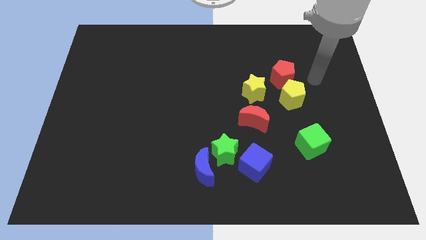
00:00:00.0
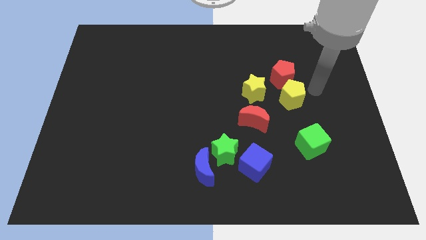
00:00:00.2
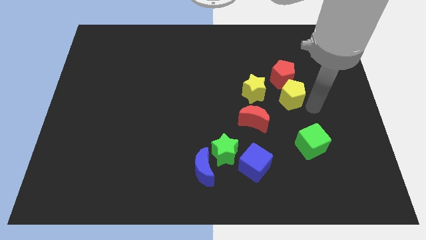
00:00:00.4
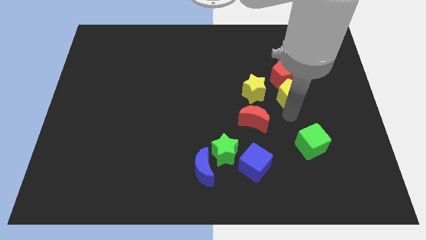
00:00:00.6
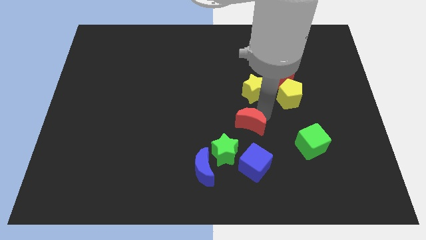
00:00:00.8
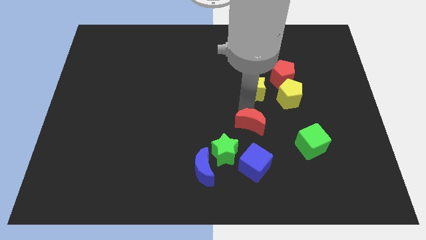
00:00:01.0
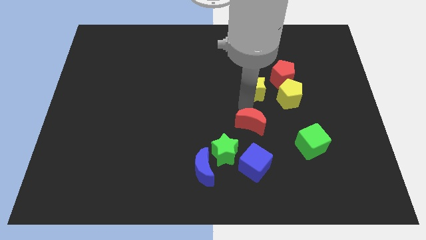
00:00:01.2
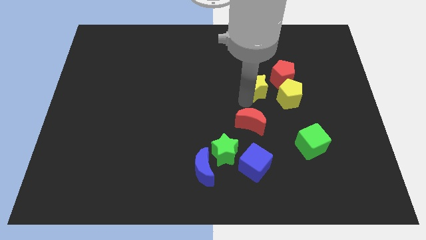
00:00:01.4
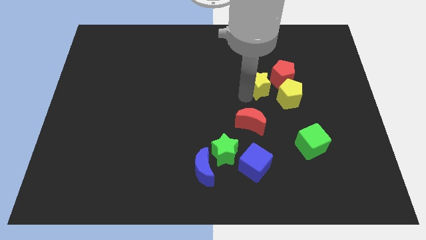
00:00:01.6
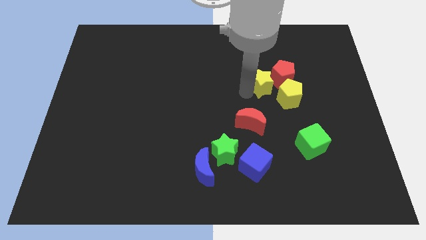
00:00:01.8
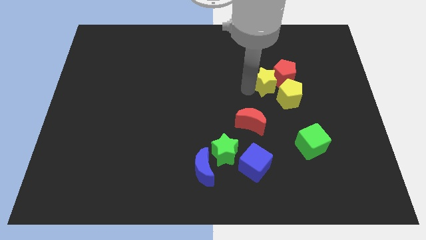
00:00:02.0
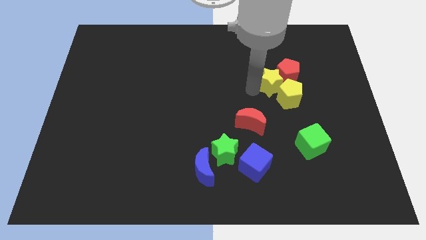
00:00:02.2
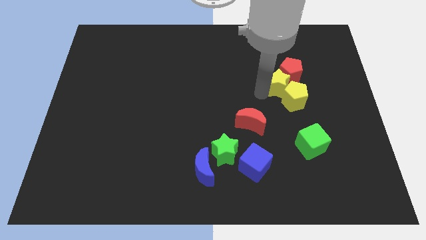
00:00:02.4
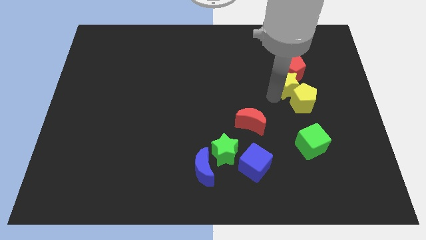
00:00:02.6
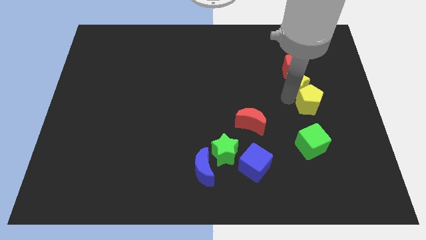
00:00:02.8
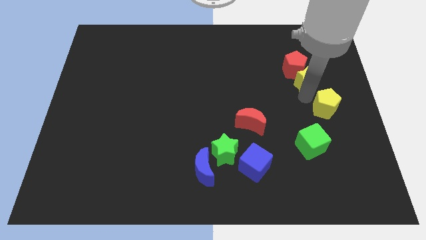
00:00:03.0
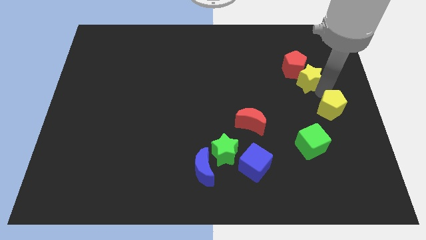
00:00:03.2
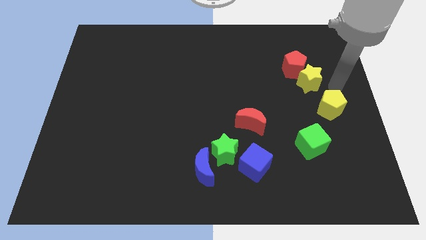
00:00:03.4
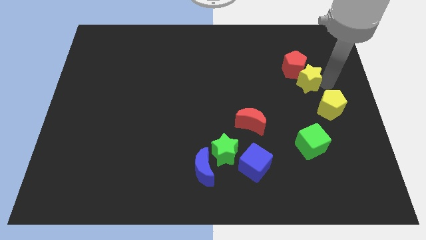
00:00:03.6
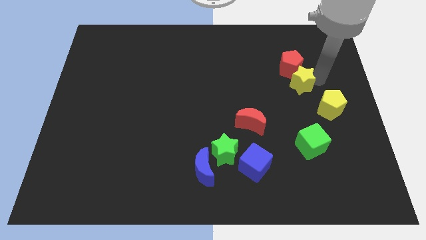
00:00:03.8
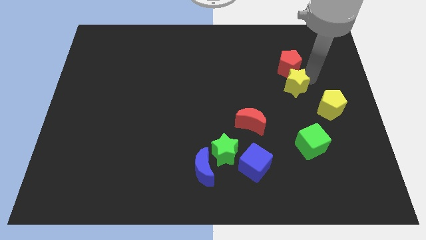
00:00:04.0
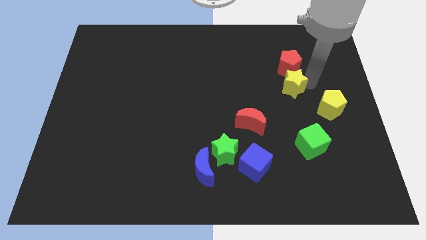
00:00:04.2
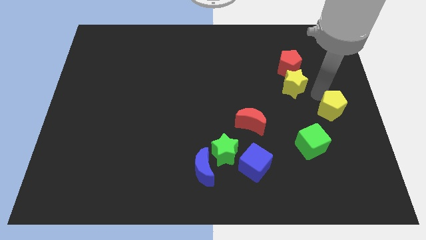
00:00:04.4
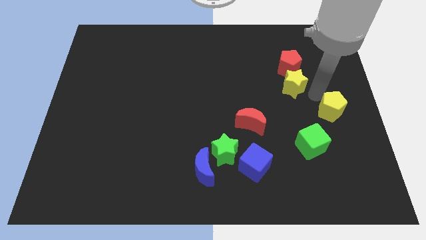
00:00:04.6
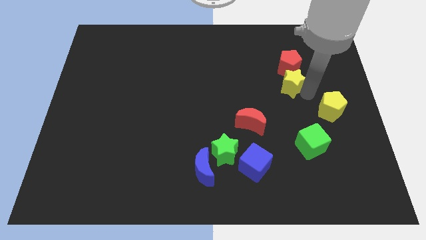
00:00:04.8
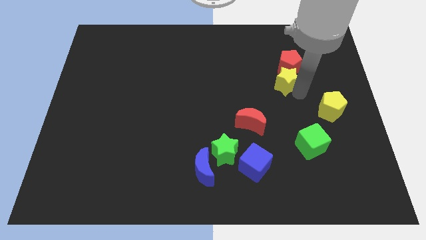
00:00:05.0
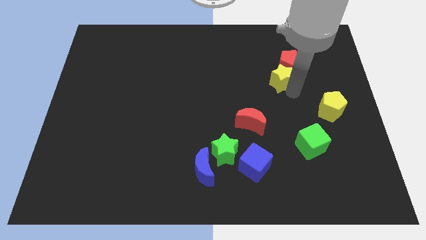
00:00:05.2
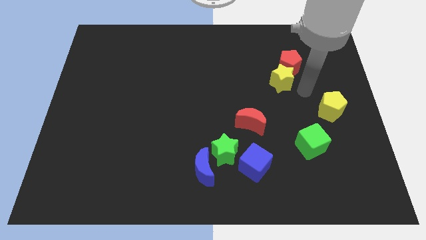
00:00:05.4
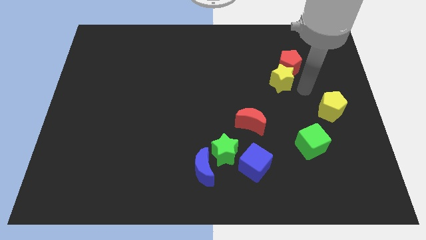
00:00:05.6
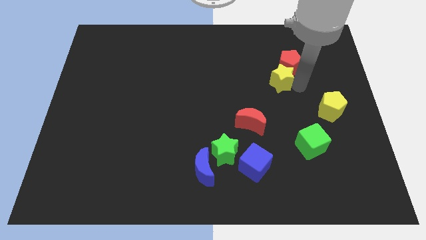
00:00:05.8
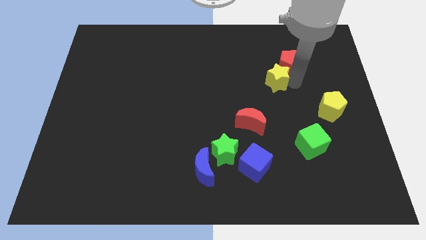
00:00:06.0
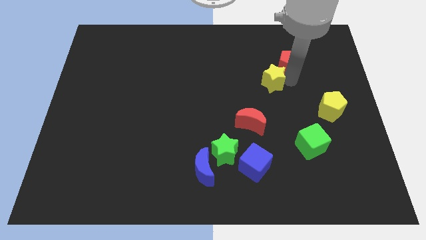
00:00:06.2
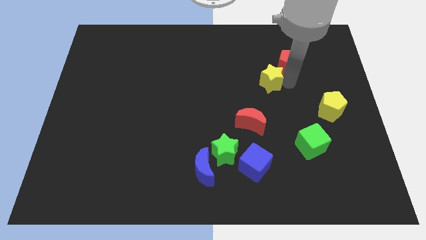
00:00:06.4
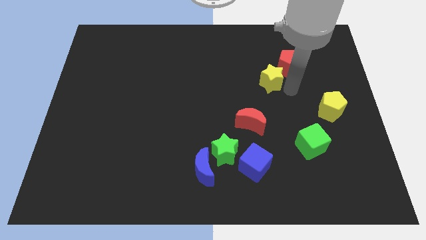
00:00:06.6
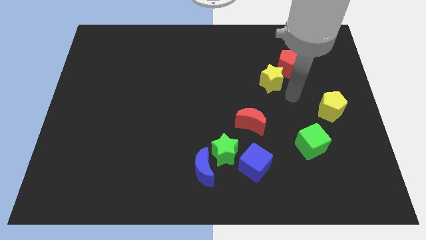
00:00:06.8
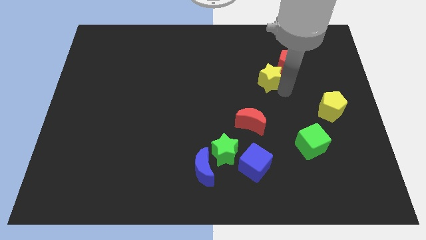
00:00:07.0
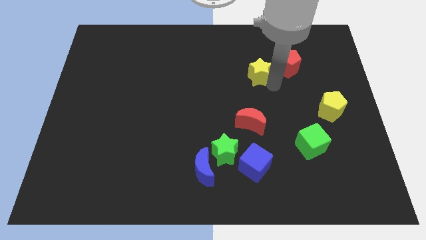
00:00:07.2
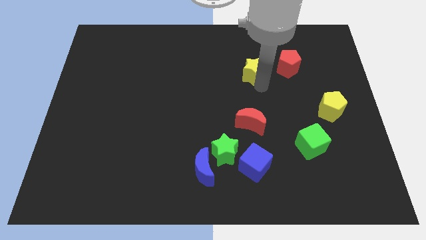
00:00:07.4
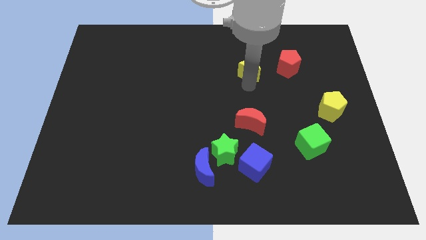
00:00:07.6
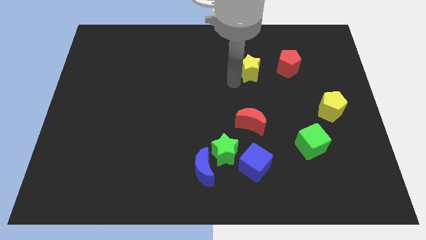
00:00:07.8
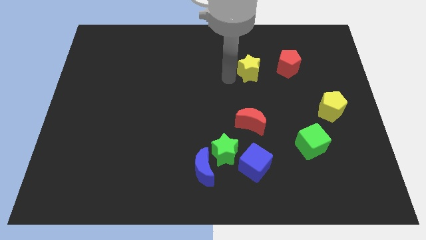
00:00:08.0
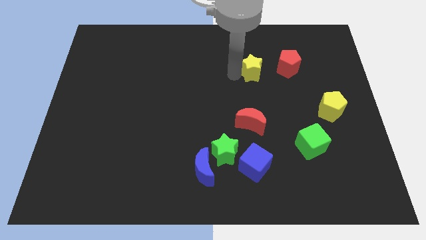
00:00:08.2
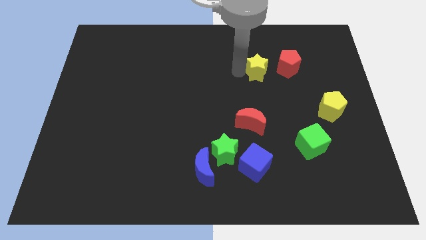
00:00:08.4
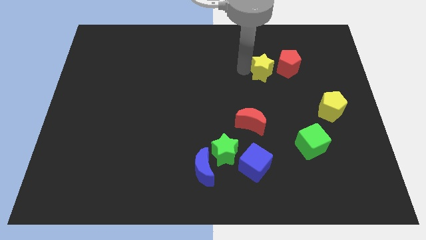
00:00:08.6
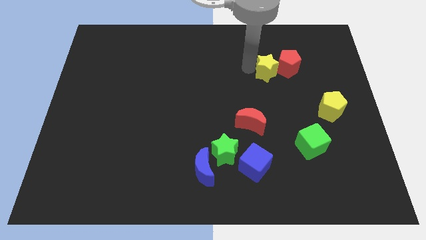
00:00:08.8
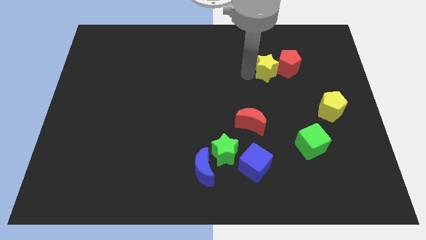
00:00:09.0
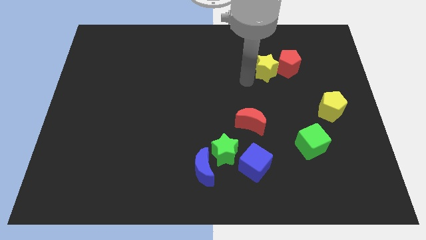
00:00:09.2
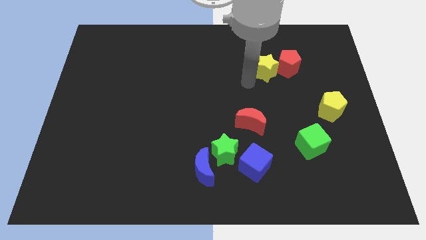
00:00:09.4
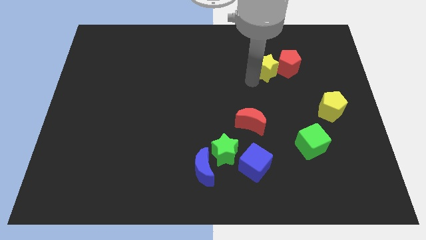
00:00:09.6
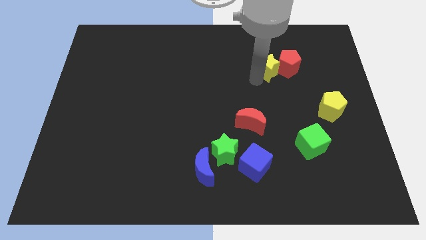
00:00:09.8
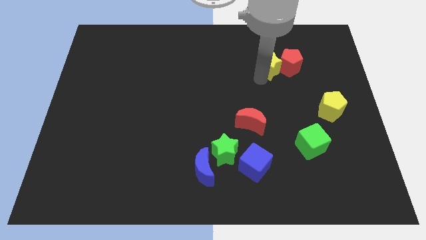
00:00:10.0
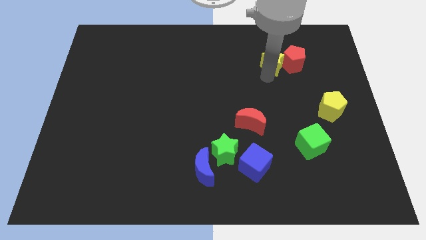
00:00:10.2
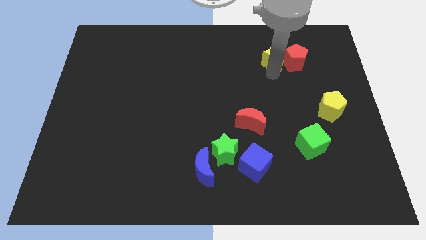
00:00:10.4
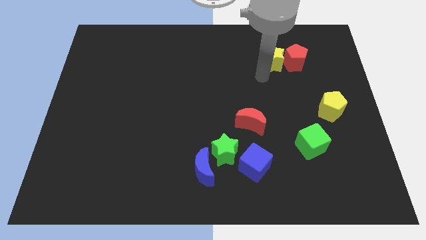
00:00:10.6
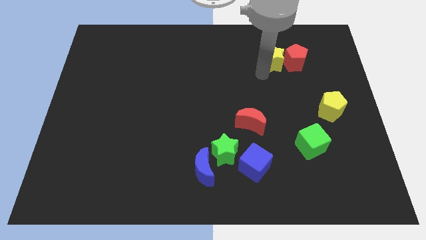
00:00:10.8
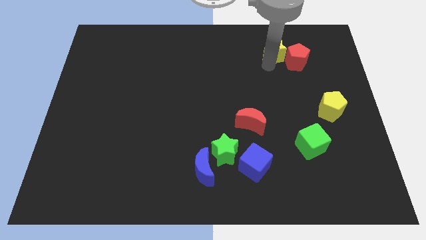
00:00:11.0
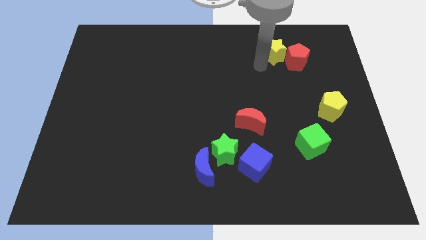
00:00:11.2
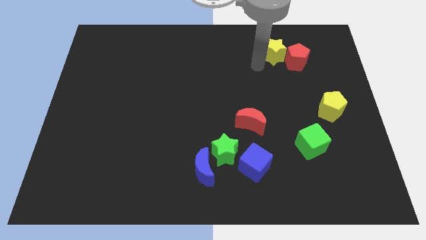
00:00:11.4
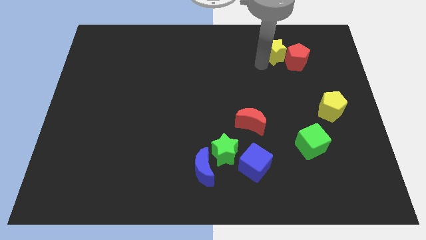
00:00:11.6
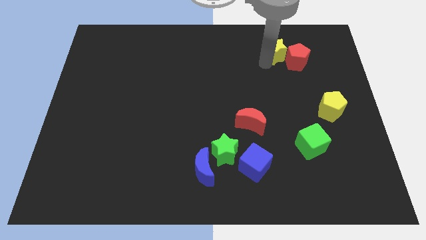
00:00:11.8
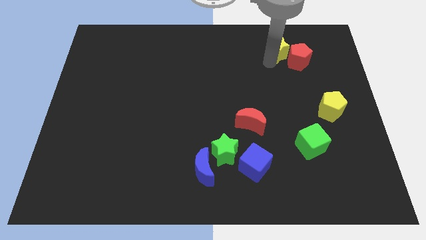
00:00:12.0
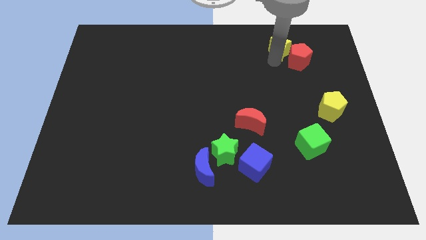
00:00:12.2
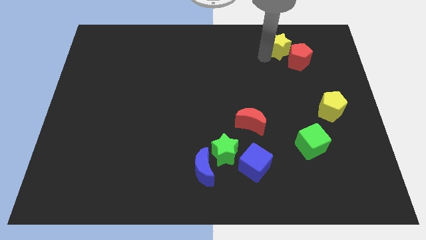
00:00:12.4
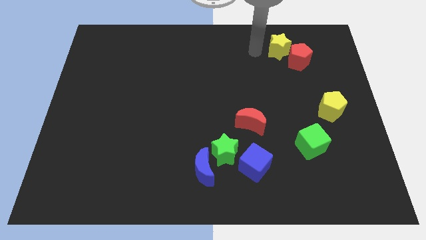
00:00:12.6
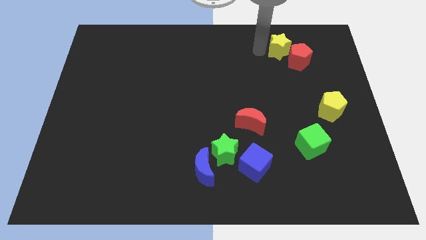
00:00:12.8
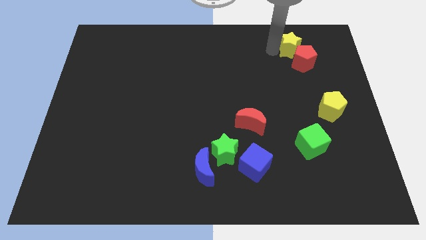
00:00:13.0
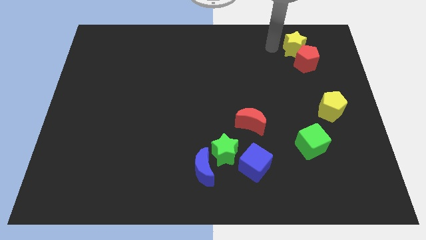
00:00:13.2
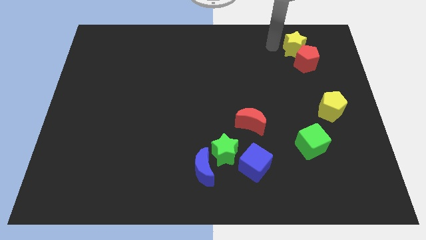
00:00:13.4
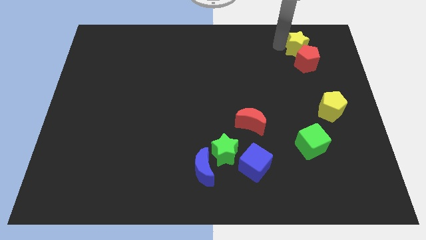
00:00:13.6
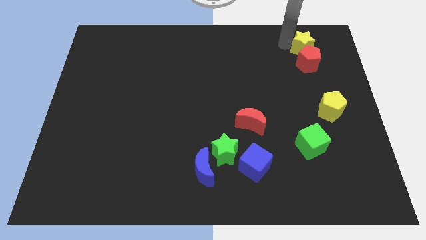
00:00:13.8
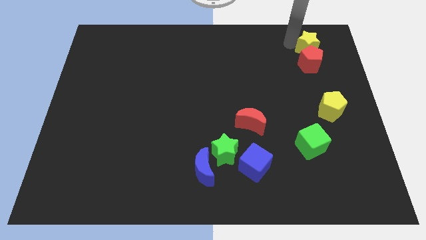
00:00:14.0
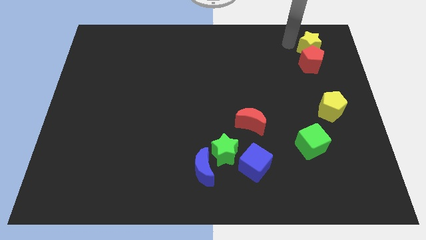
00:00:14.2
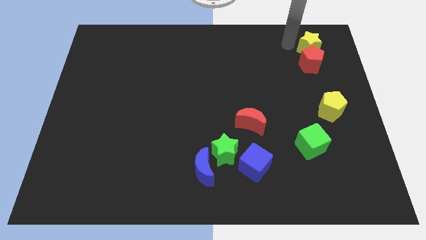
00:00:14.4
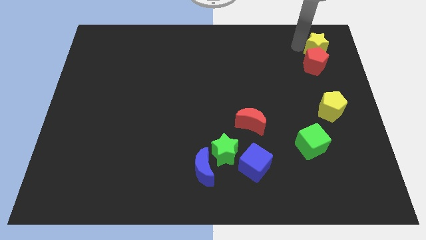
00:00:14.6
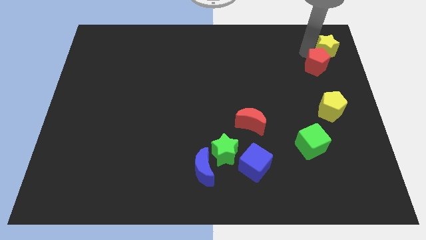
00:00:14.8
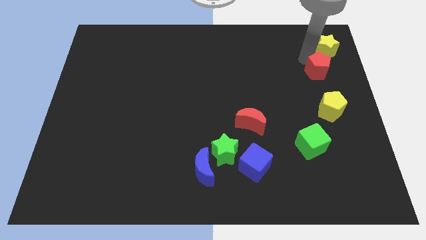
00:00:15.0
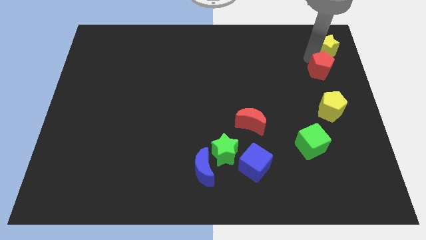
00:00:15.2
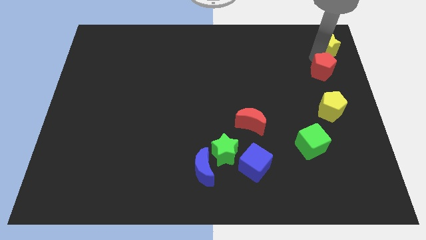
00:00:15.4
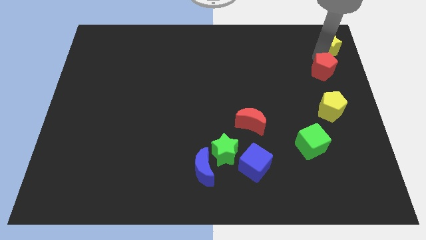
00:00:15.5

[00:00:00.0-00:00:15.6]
put the yellow star to the top right of the board
